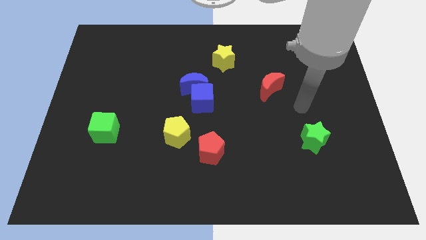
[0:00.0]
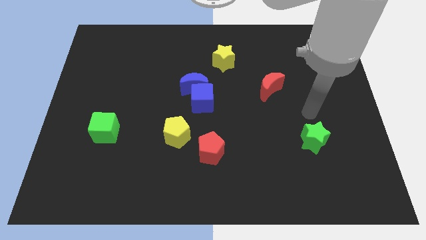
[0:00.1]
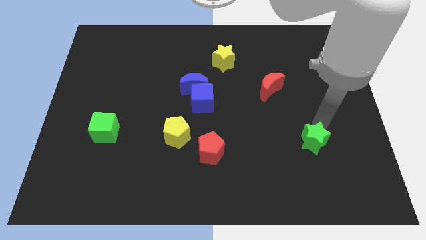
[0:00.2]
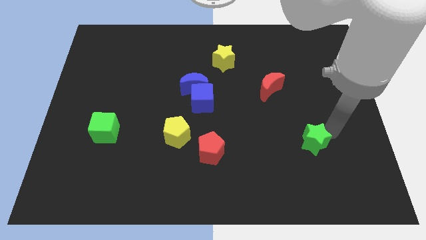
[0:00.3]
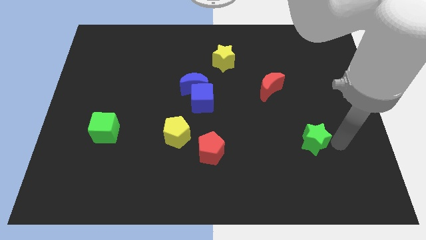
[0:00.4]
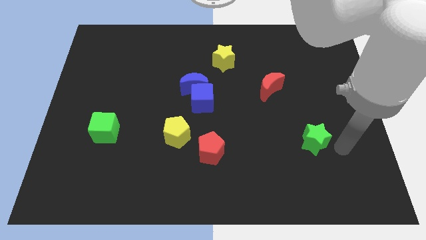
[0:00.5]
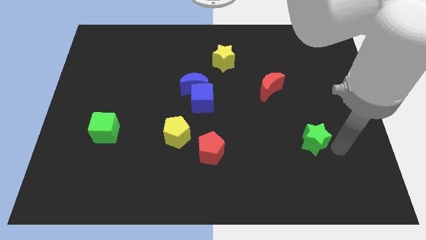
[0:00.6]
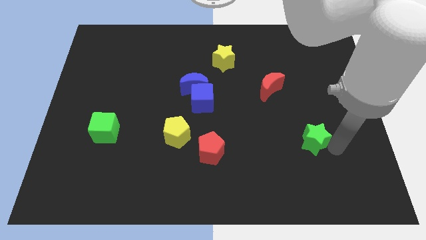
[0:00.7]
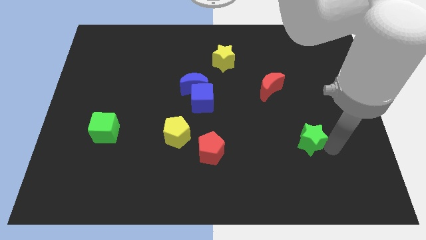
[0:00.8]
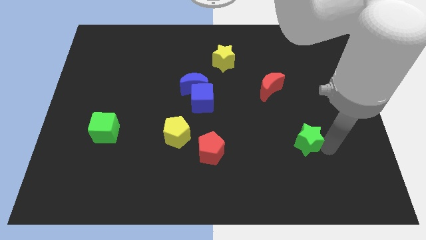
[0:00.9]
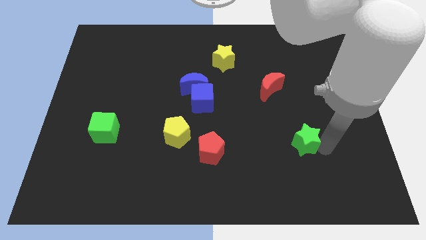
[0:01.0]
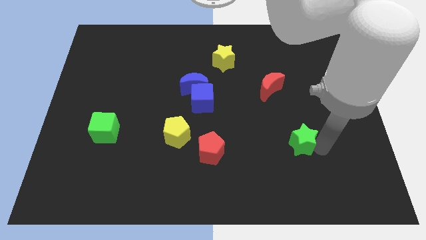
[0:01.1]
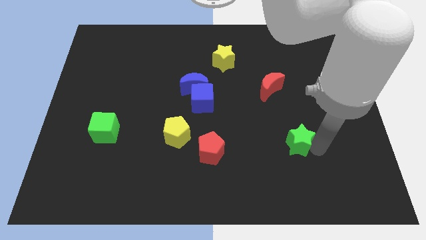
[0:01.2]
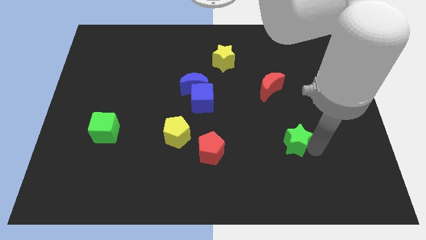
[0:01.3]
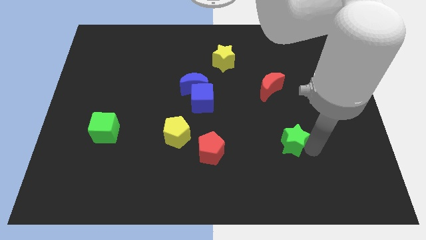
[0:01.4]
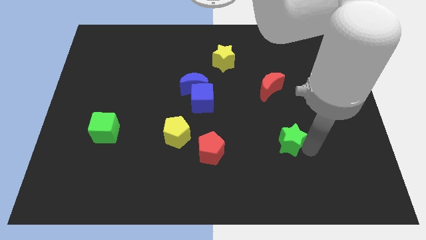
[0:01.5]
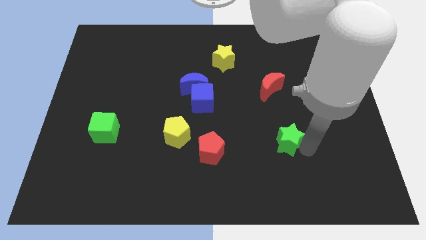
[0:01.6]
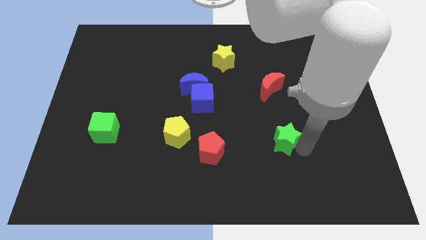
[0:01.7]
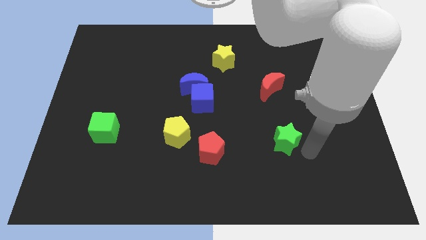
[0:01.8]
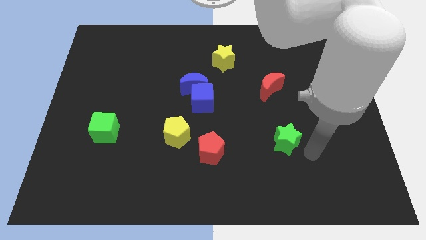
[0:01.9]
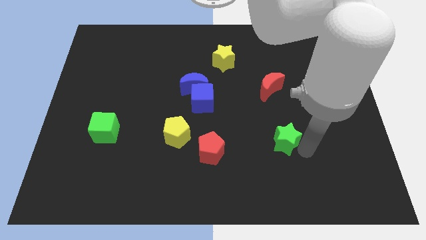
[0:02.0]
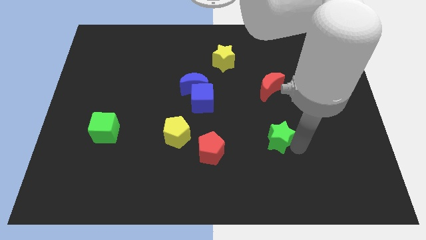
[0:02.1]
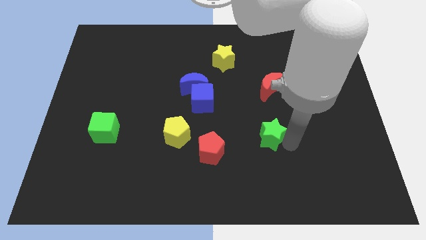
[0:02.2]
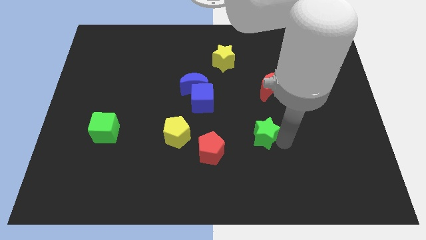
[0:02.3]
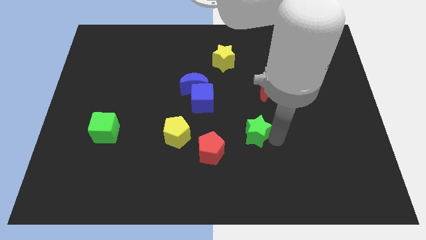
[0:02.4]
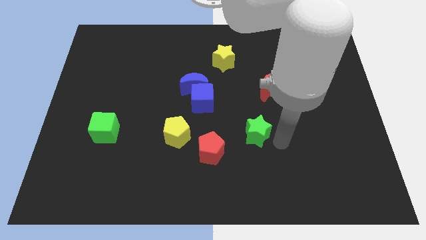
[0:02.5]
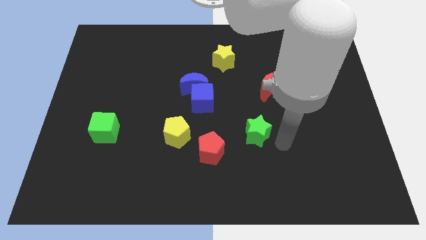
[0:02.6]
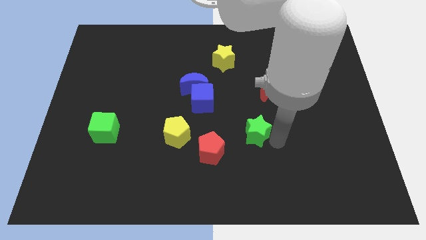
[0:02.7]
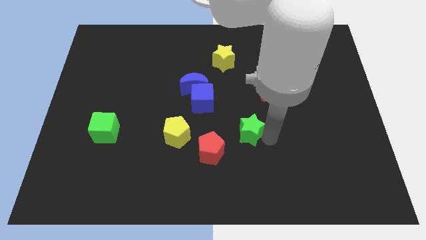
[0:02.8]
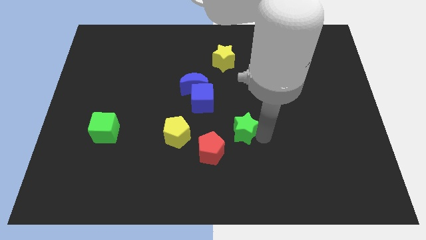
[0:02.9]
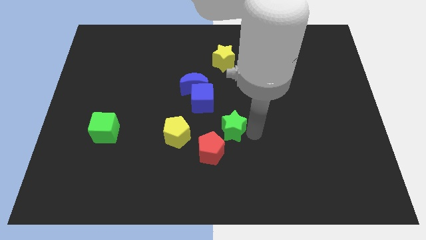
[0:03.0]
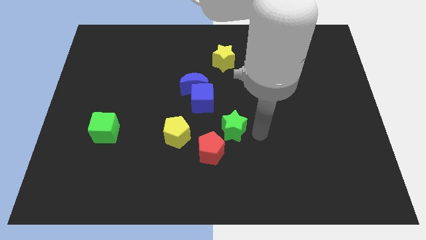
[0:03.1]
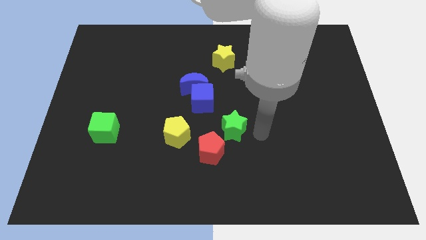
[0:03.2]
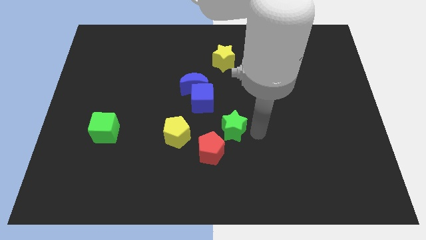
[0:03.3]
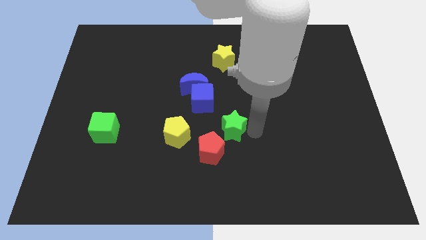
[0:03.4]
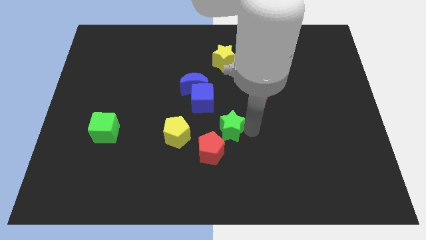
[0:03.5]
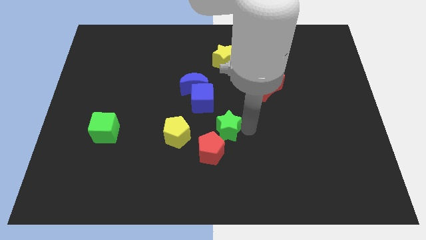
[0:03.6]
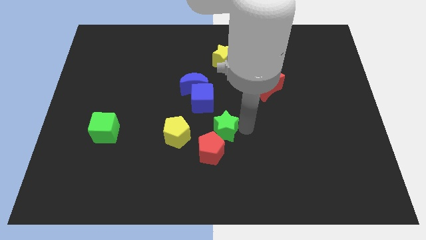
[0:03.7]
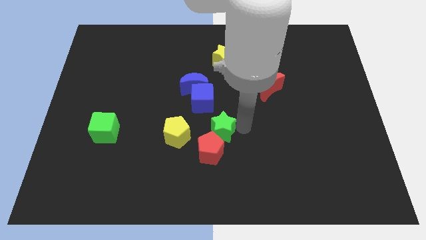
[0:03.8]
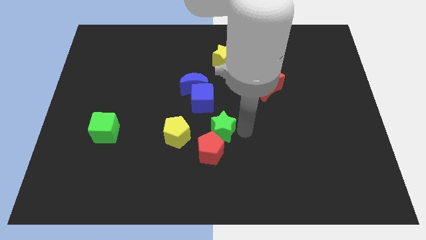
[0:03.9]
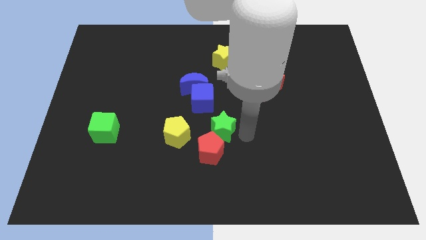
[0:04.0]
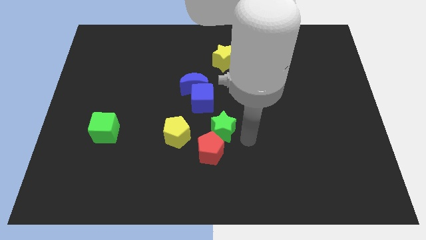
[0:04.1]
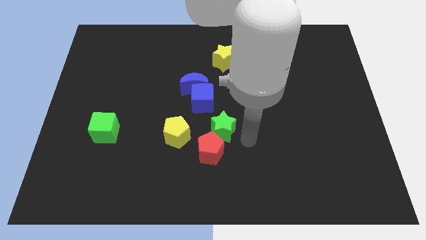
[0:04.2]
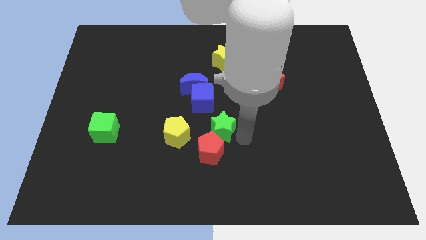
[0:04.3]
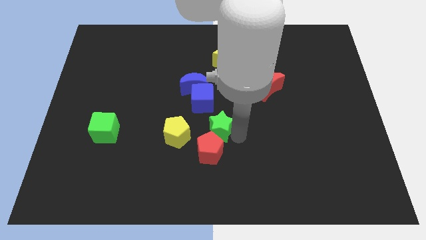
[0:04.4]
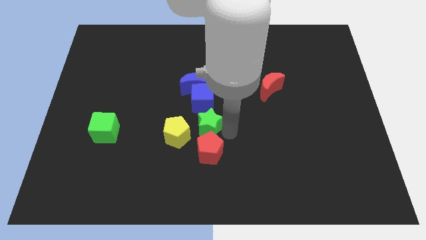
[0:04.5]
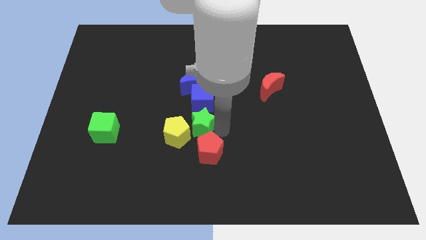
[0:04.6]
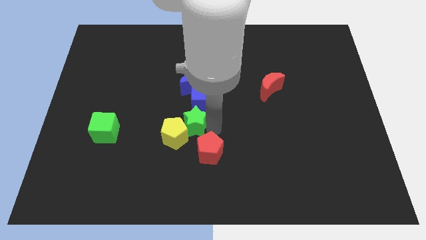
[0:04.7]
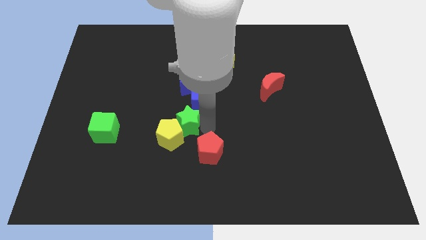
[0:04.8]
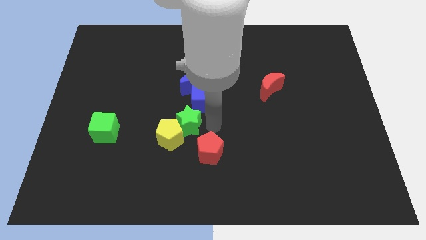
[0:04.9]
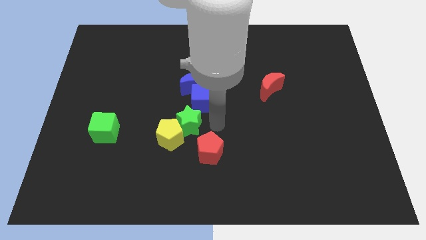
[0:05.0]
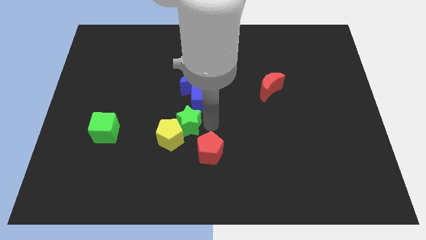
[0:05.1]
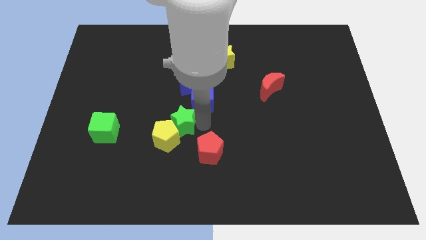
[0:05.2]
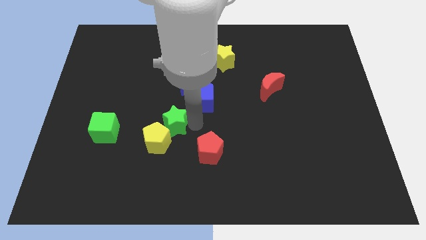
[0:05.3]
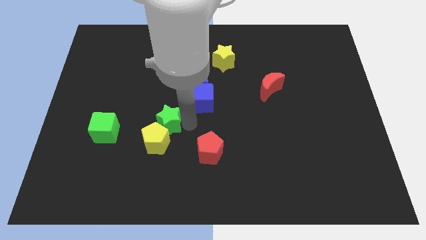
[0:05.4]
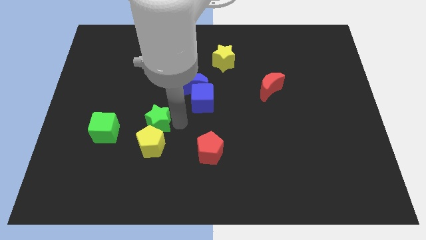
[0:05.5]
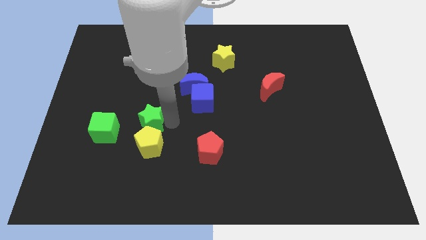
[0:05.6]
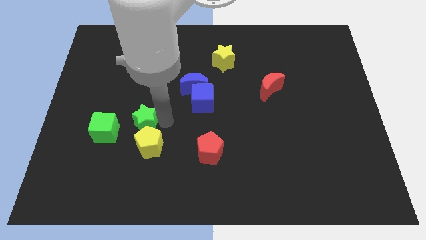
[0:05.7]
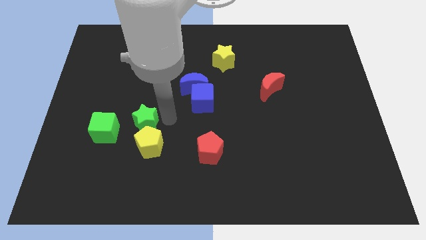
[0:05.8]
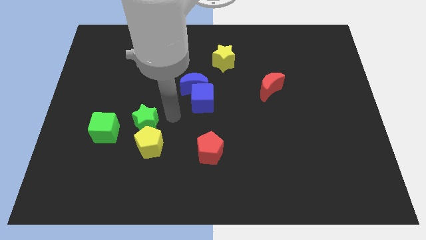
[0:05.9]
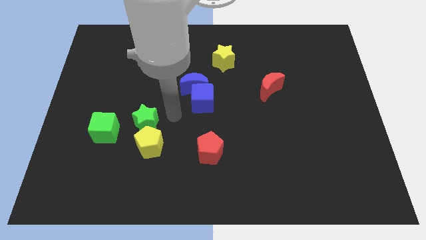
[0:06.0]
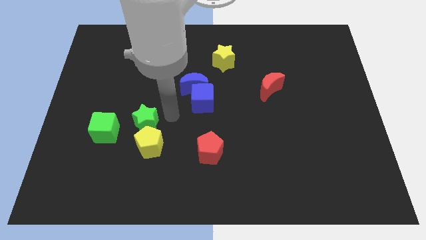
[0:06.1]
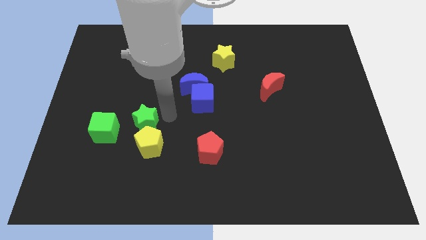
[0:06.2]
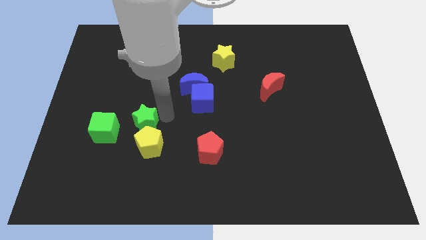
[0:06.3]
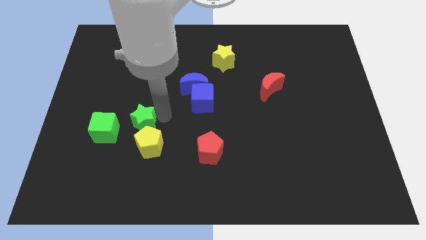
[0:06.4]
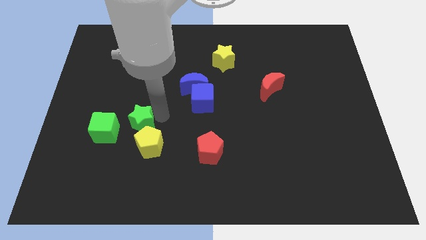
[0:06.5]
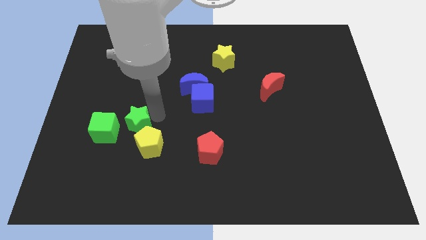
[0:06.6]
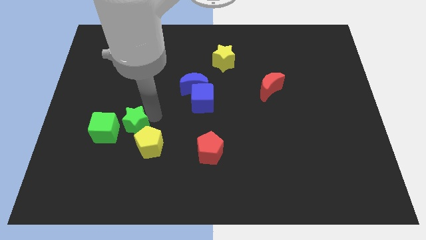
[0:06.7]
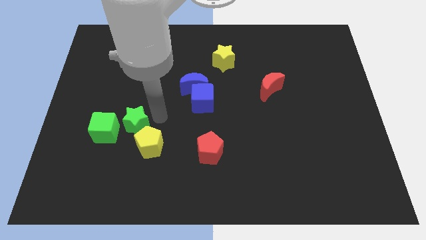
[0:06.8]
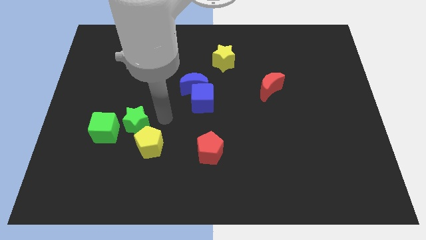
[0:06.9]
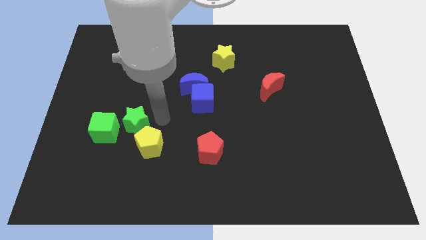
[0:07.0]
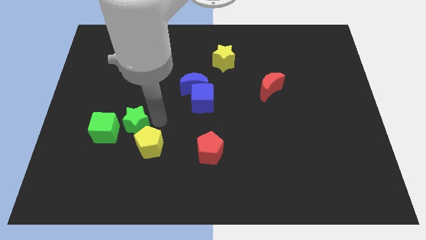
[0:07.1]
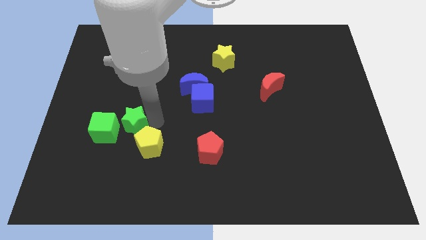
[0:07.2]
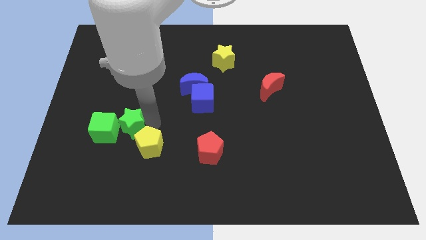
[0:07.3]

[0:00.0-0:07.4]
move the green star next to the green cube
